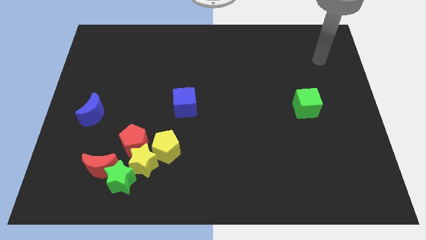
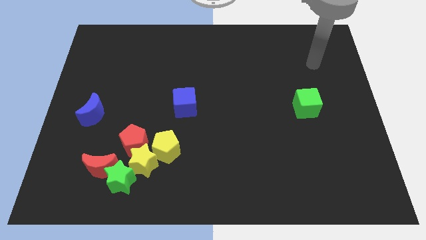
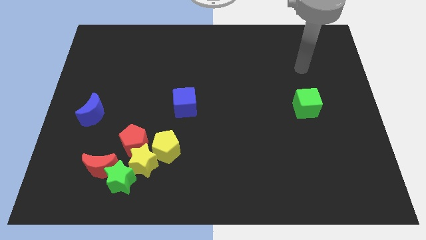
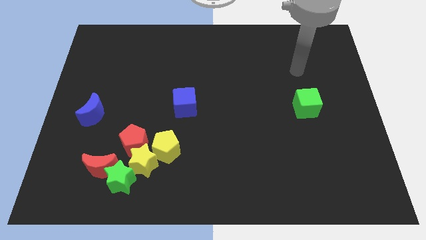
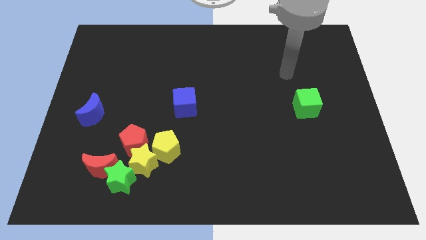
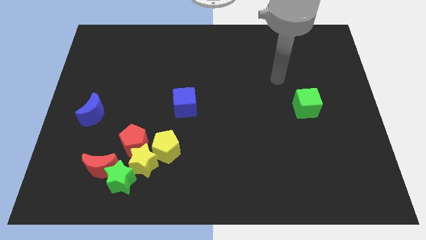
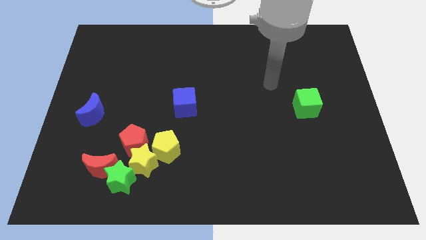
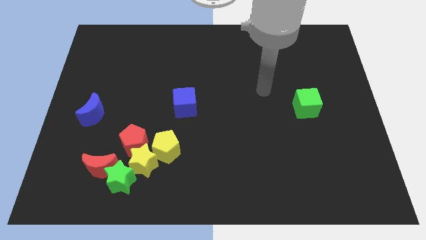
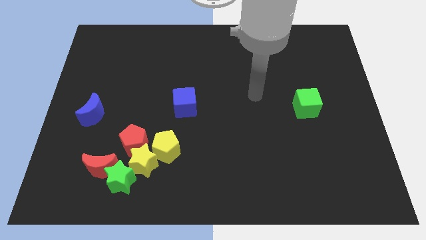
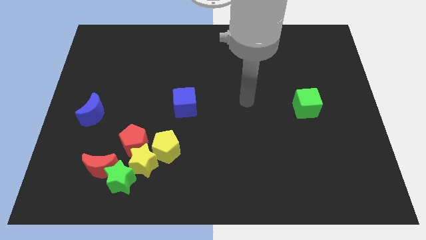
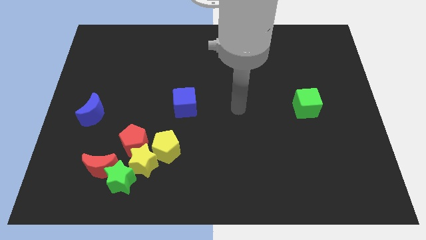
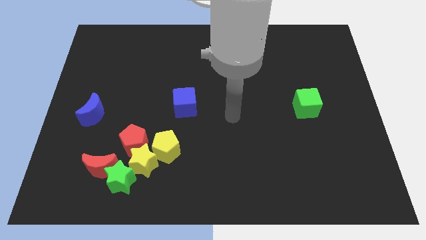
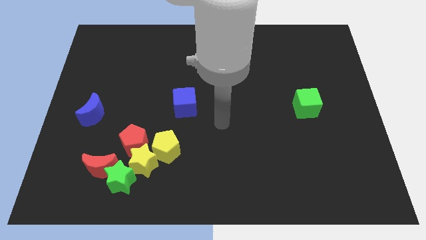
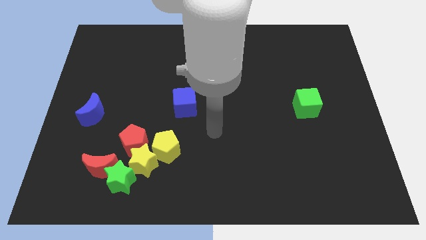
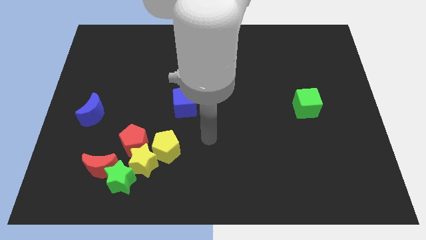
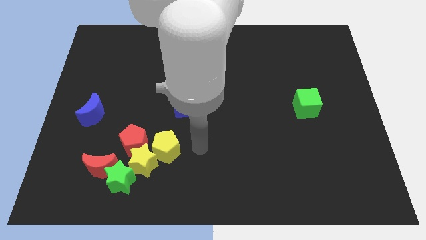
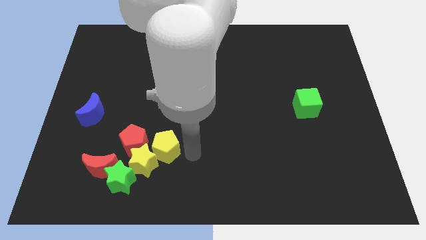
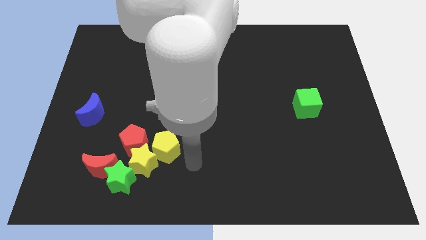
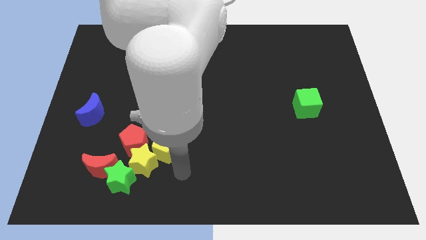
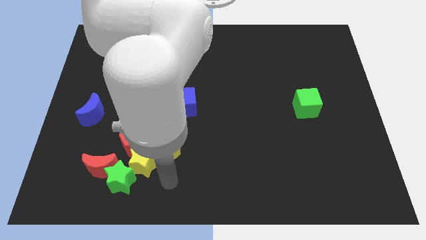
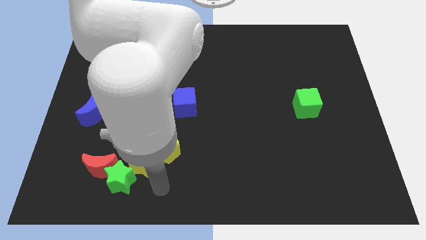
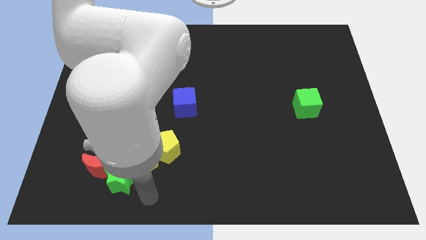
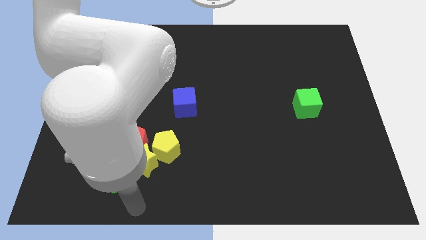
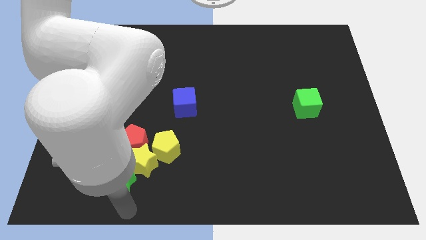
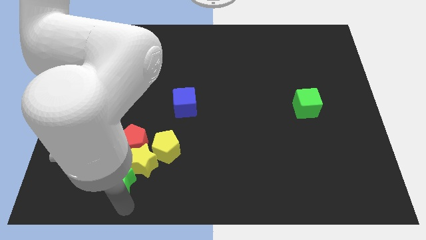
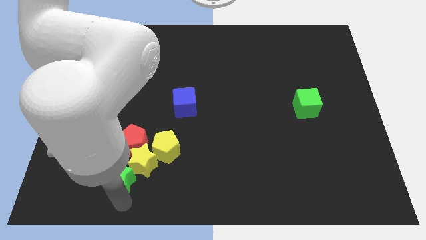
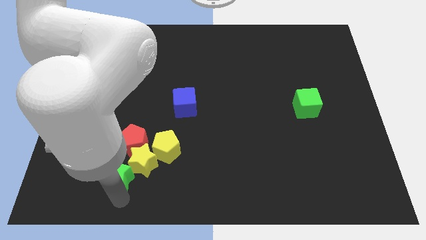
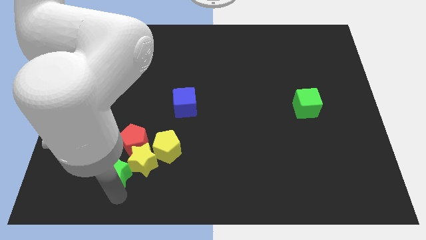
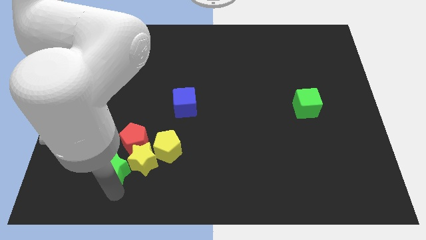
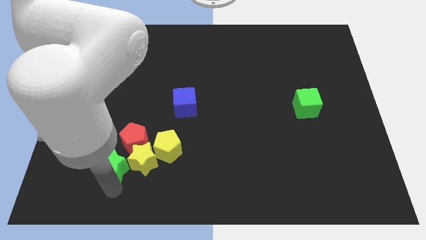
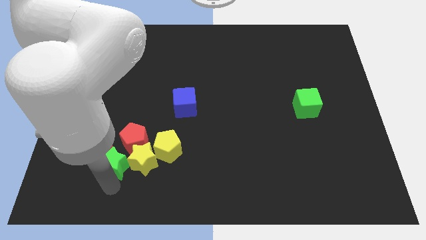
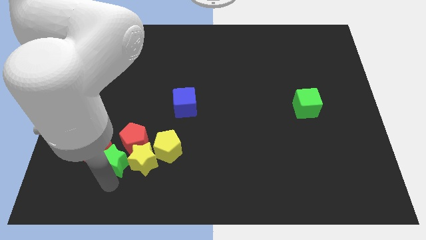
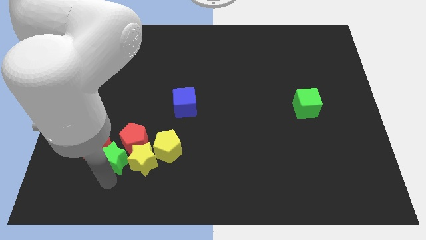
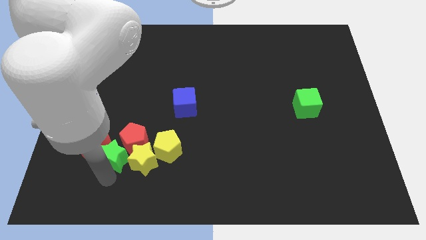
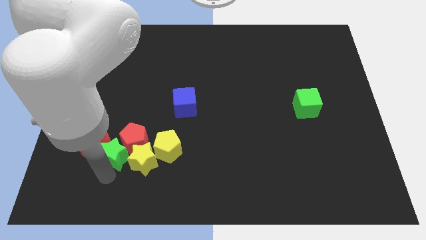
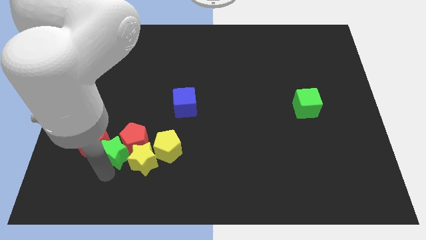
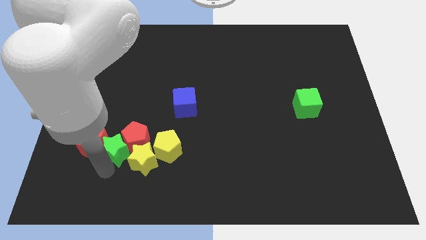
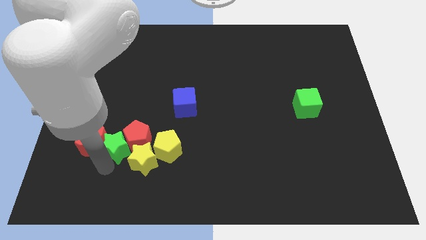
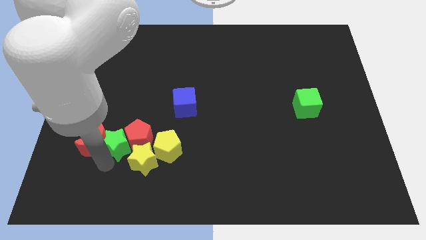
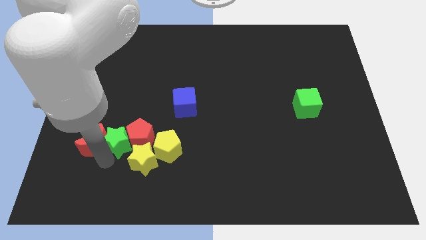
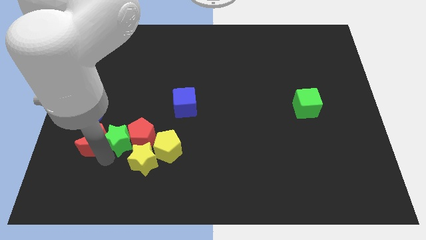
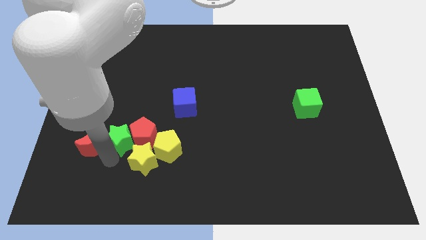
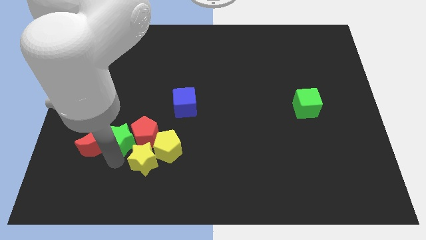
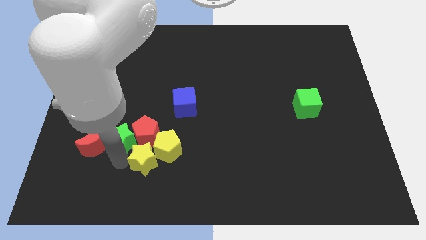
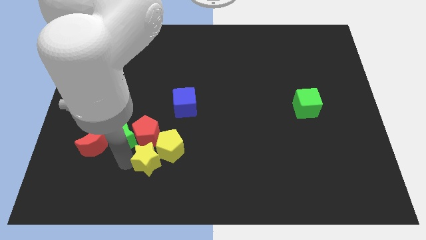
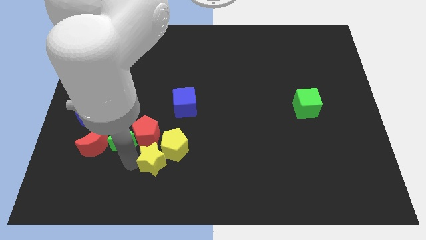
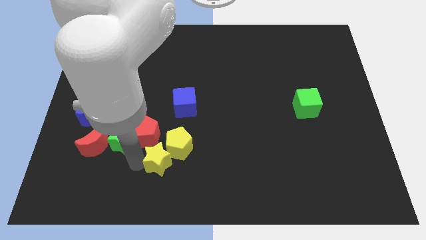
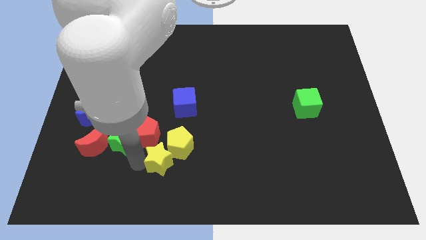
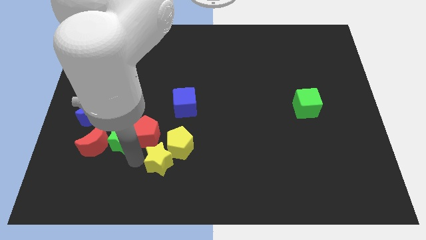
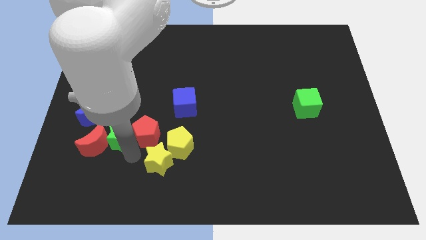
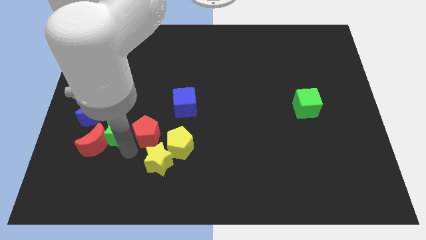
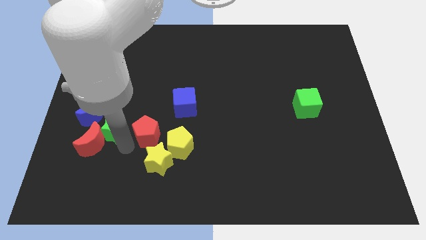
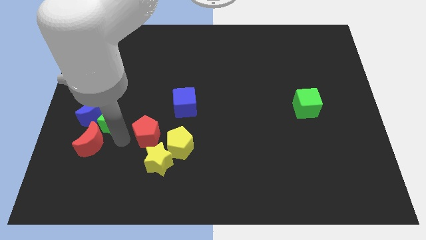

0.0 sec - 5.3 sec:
push the green star to the blue moon

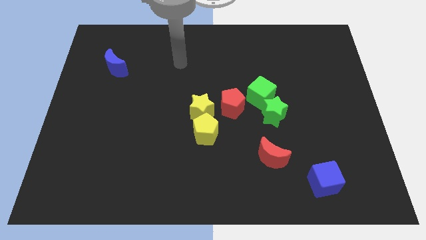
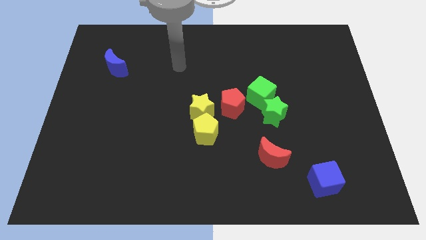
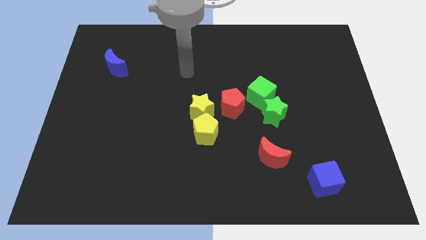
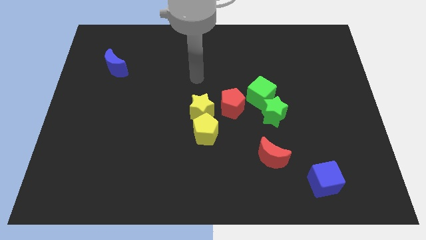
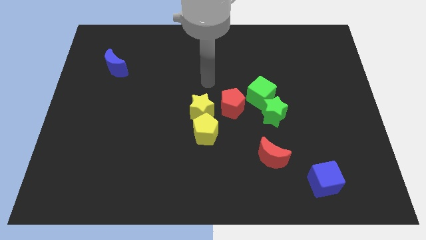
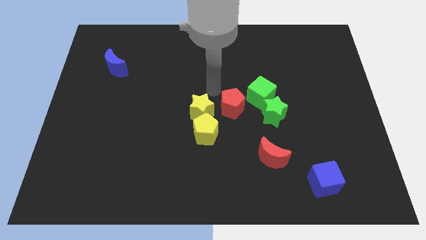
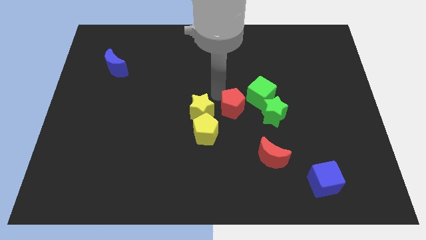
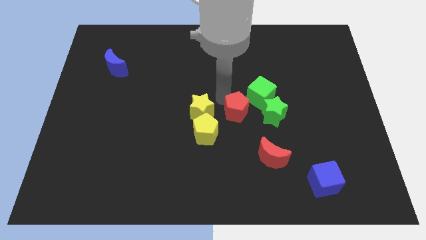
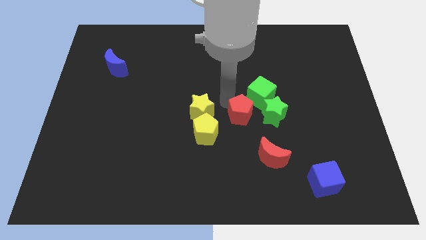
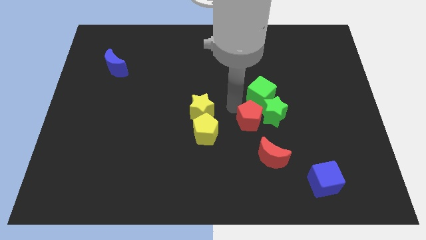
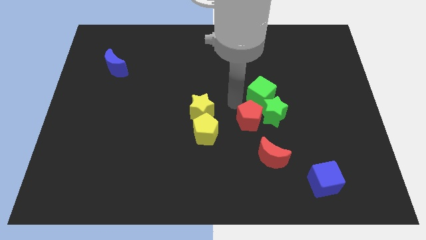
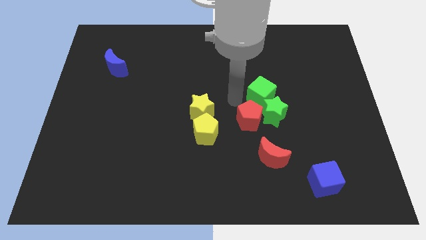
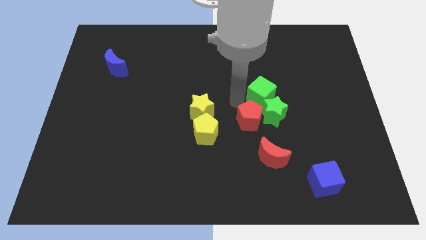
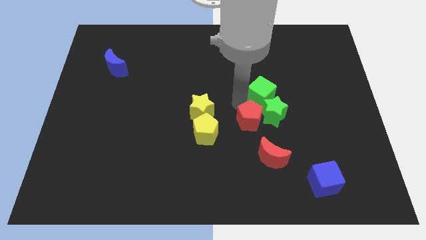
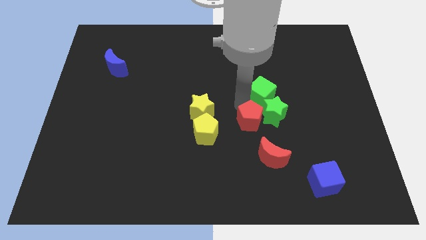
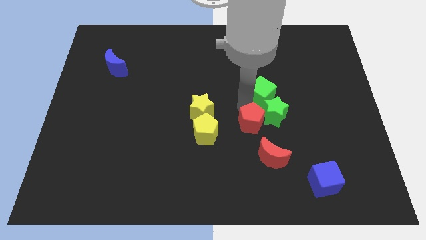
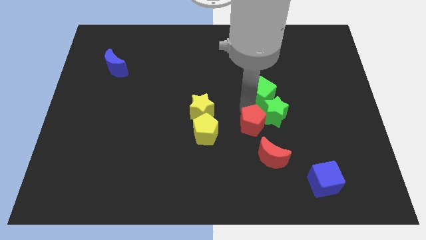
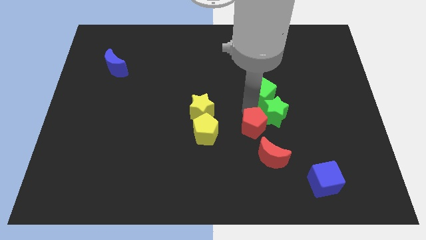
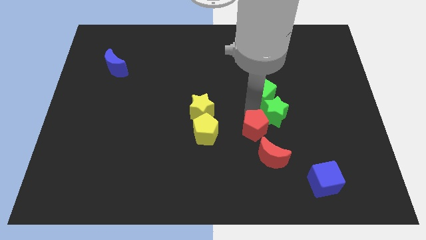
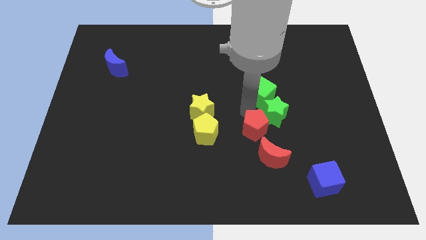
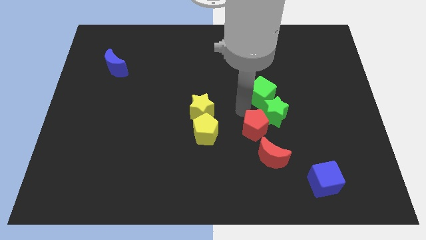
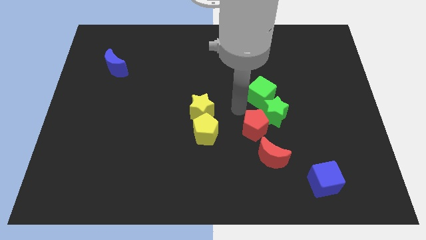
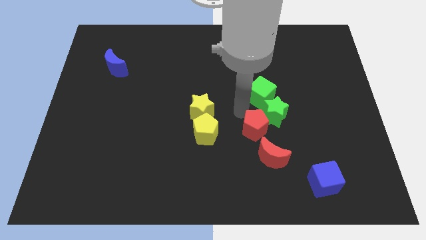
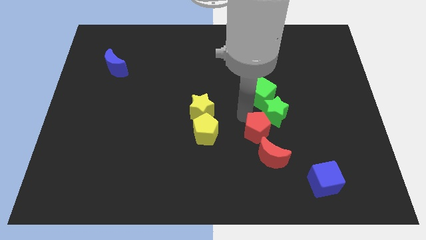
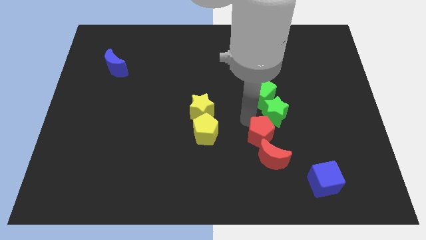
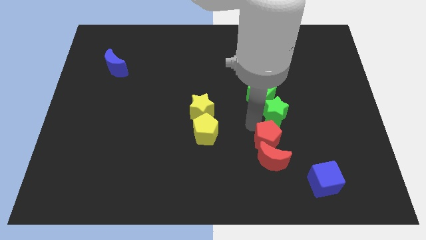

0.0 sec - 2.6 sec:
move the red pentagon close to the red moon

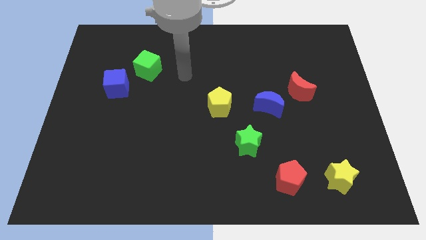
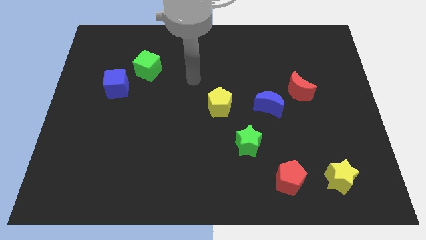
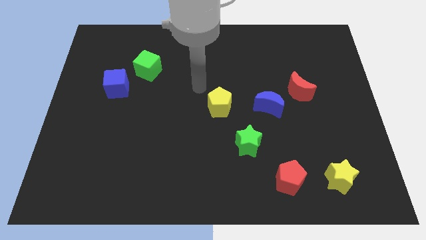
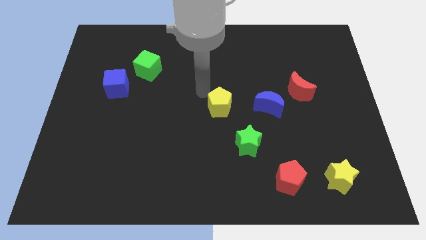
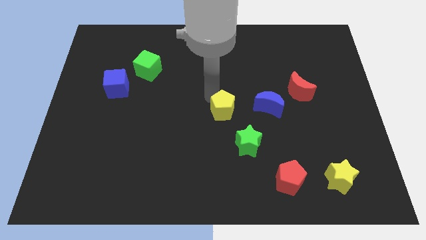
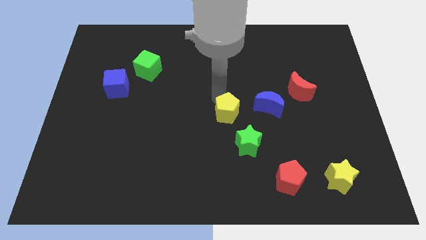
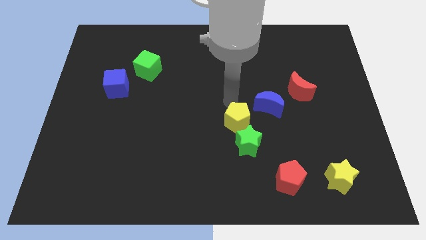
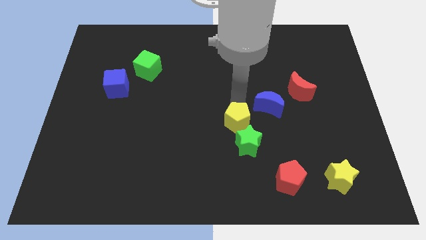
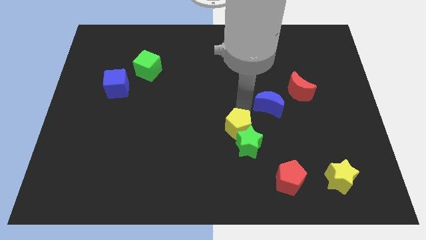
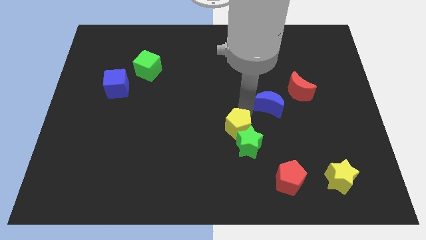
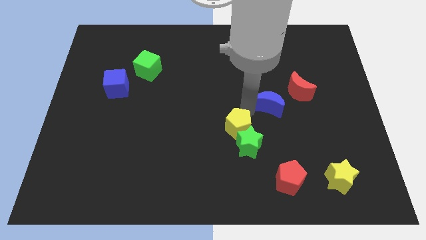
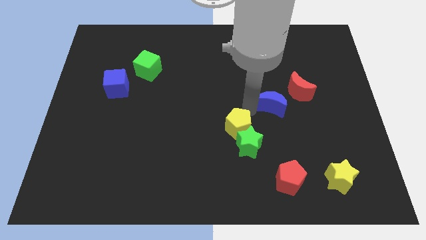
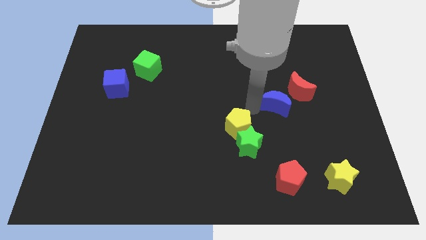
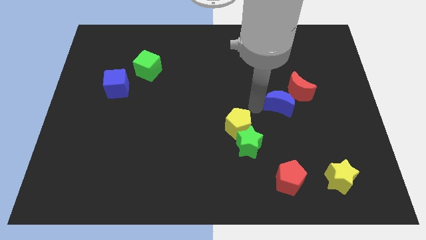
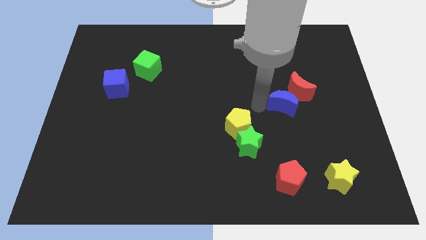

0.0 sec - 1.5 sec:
slide the blue moon next to the red moon
